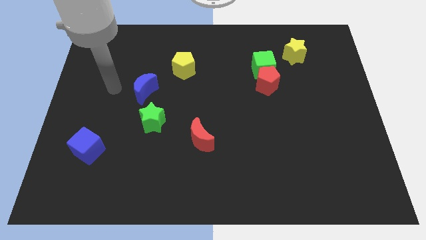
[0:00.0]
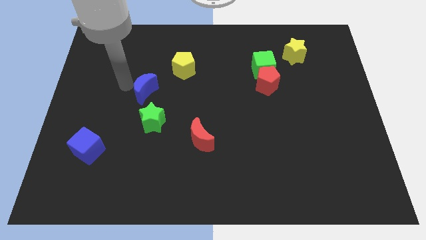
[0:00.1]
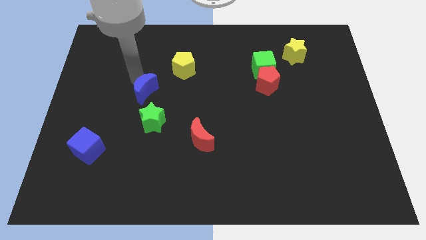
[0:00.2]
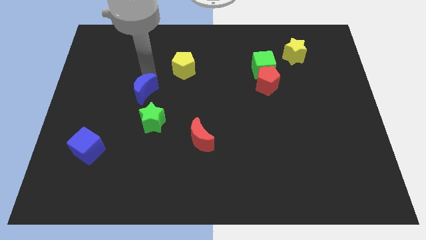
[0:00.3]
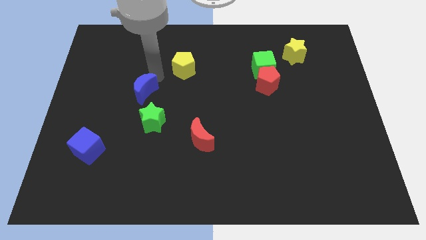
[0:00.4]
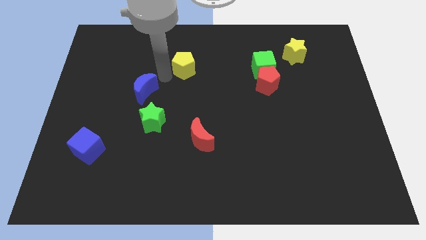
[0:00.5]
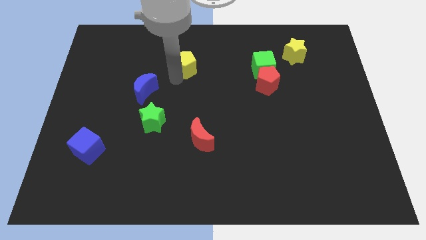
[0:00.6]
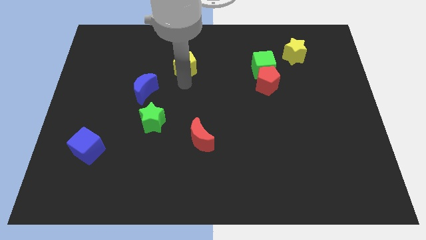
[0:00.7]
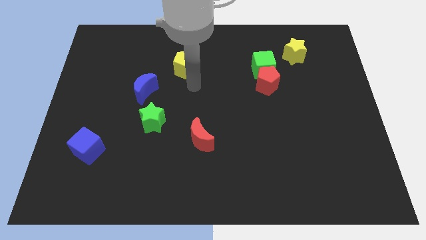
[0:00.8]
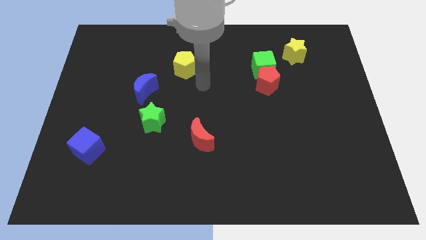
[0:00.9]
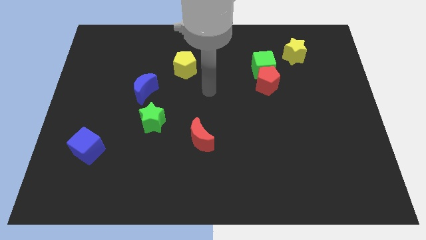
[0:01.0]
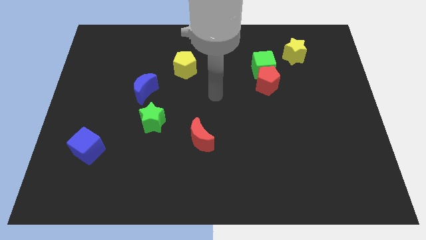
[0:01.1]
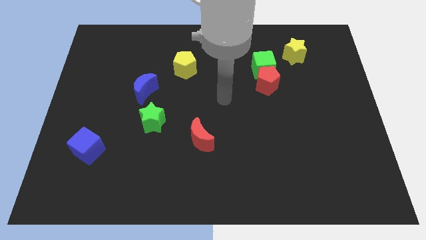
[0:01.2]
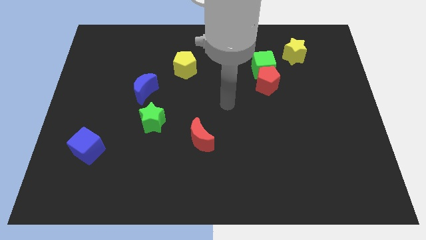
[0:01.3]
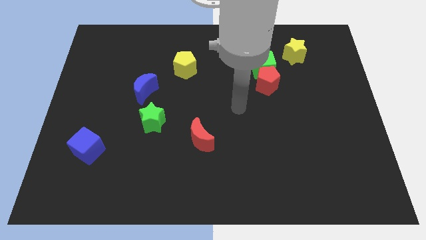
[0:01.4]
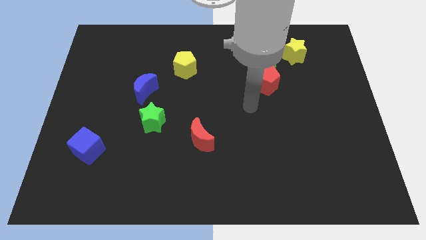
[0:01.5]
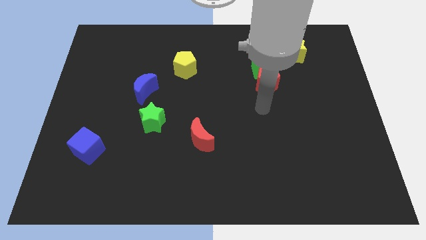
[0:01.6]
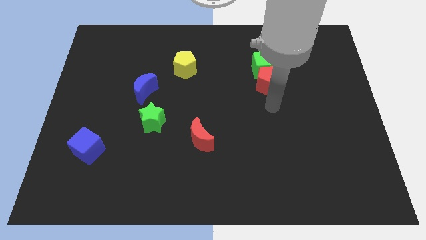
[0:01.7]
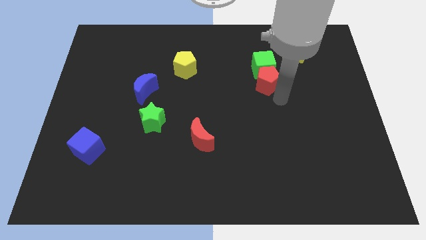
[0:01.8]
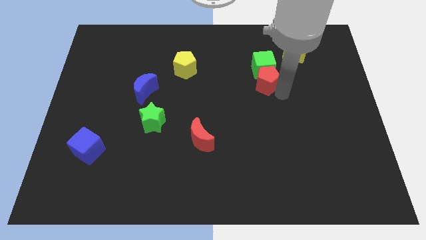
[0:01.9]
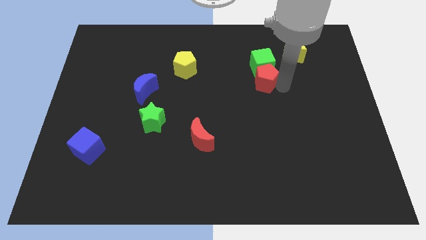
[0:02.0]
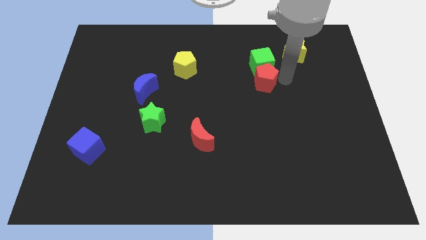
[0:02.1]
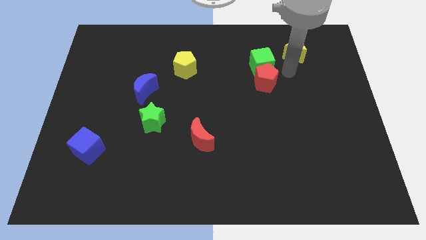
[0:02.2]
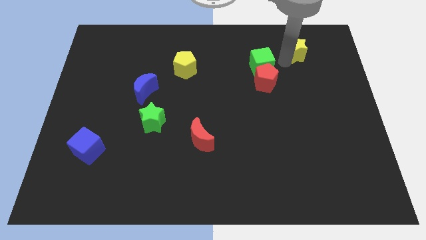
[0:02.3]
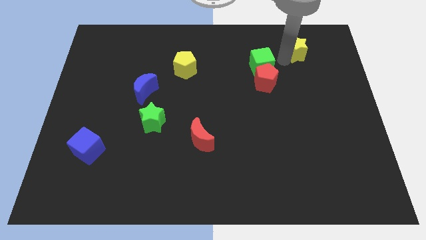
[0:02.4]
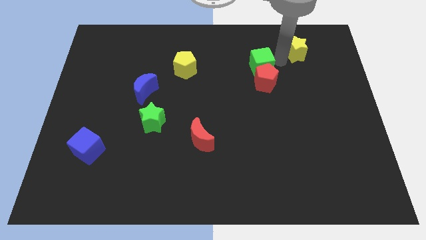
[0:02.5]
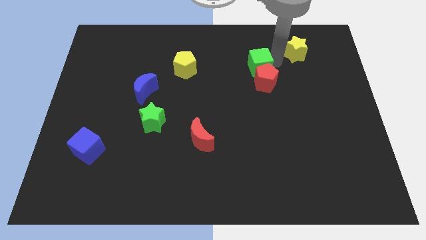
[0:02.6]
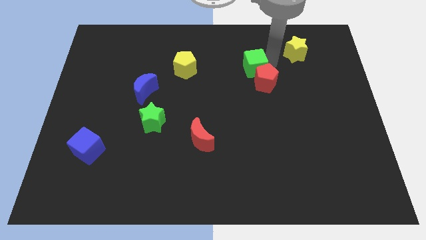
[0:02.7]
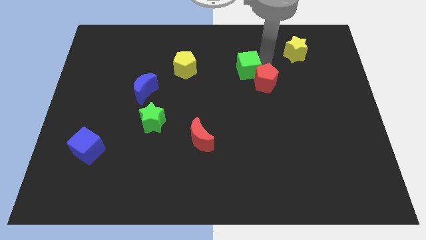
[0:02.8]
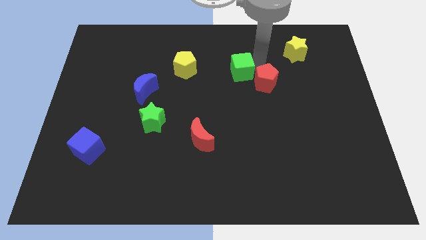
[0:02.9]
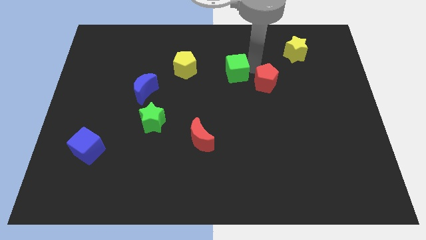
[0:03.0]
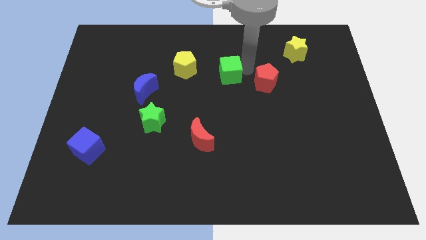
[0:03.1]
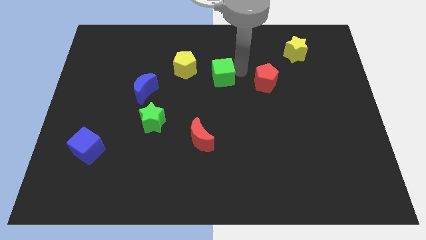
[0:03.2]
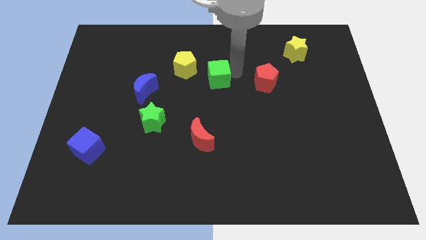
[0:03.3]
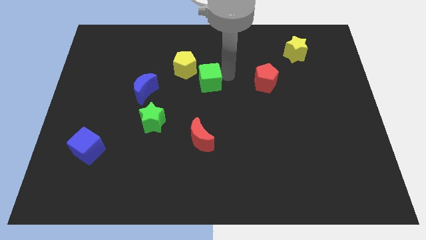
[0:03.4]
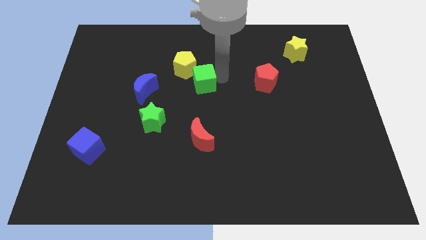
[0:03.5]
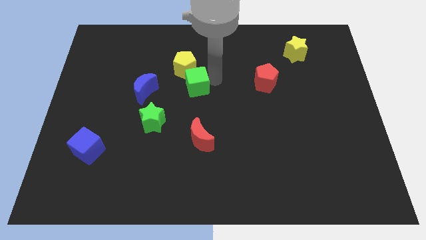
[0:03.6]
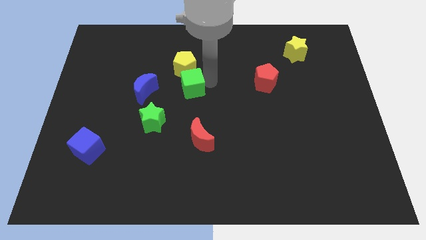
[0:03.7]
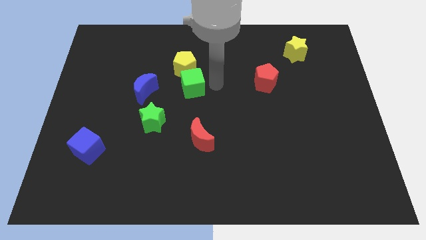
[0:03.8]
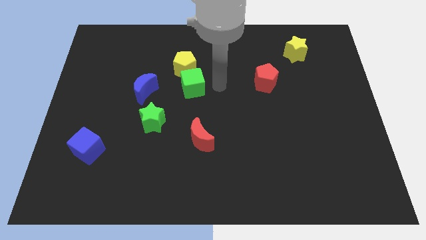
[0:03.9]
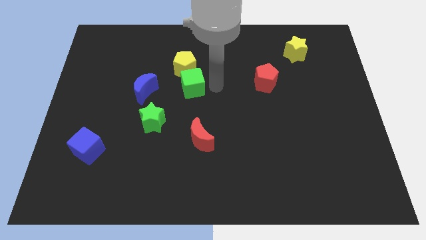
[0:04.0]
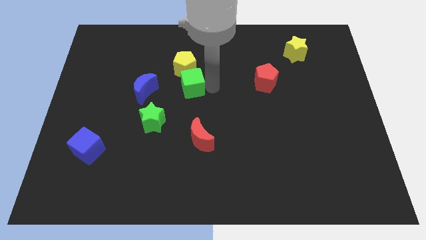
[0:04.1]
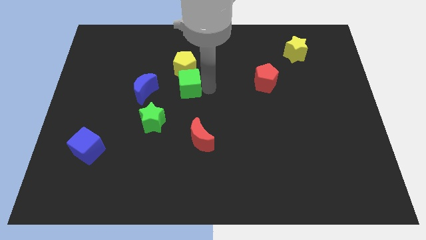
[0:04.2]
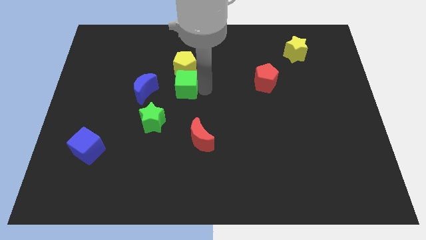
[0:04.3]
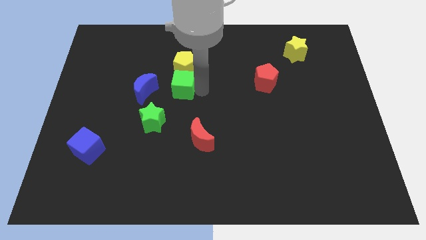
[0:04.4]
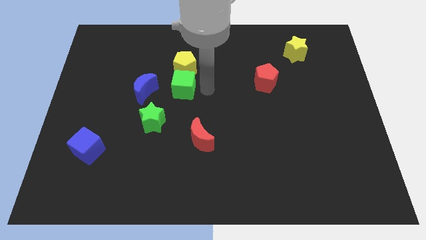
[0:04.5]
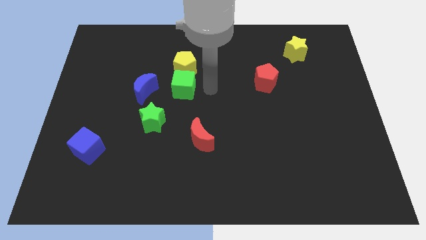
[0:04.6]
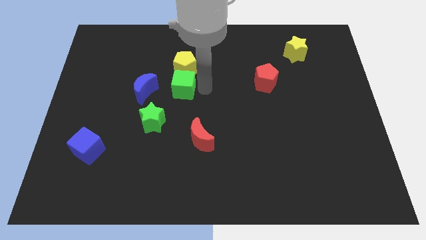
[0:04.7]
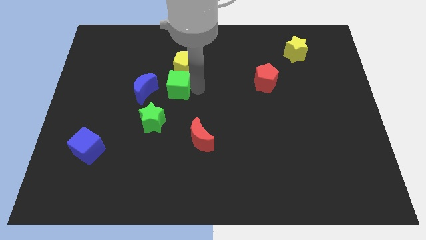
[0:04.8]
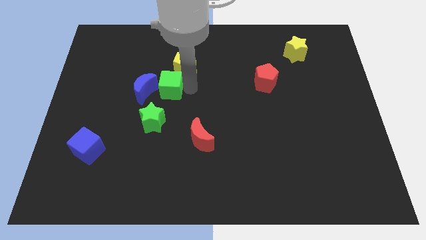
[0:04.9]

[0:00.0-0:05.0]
put the green cube above the green star

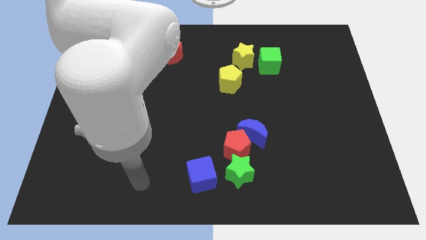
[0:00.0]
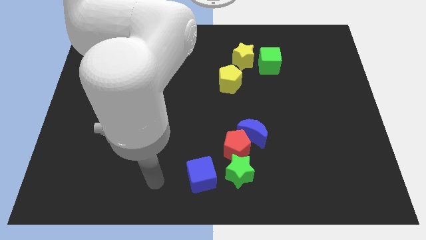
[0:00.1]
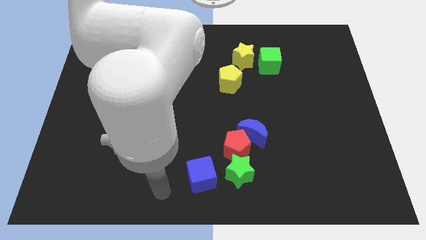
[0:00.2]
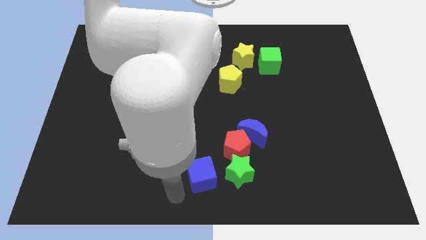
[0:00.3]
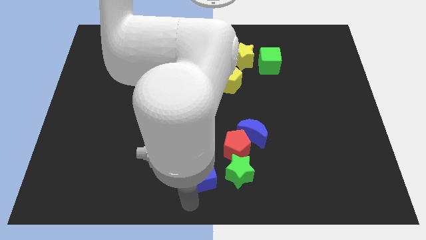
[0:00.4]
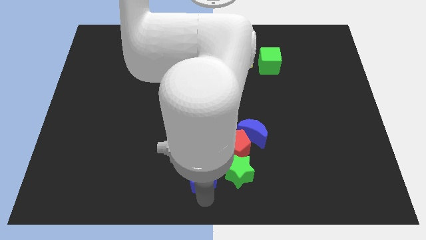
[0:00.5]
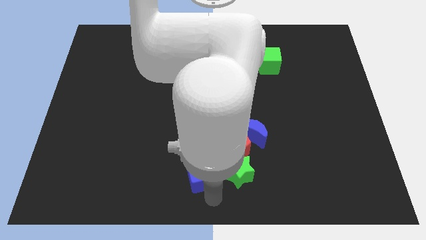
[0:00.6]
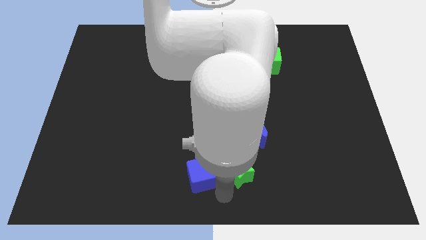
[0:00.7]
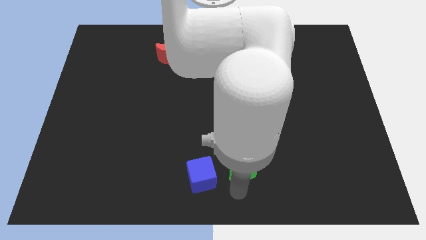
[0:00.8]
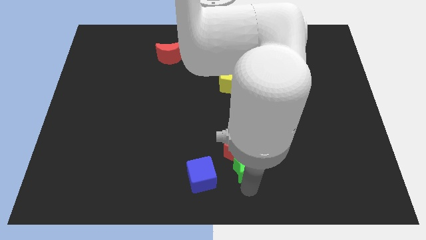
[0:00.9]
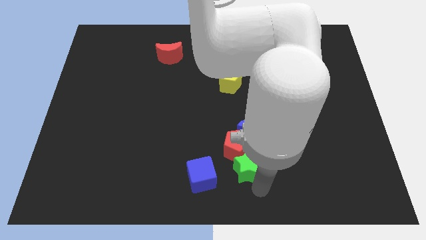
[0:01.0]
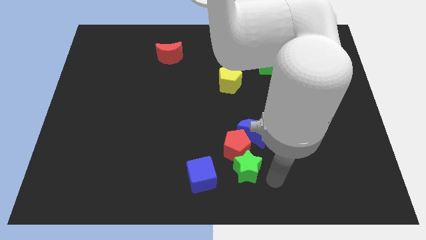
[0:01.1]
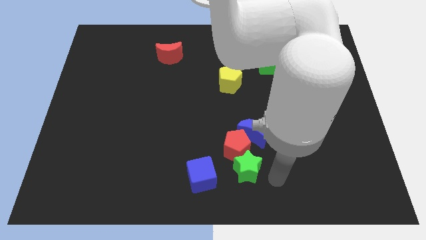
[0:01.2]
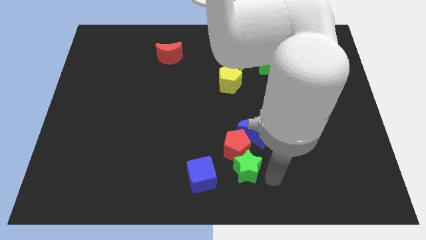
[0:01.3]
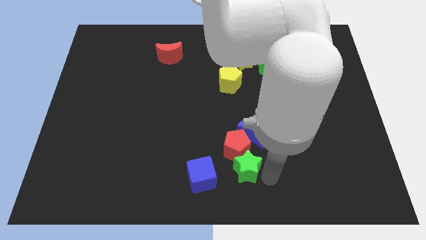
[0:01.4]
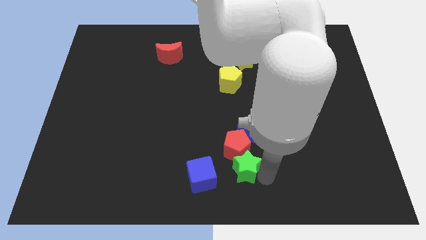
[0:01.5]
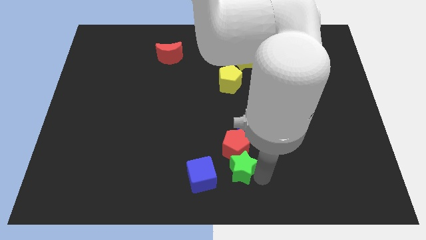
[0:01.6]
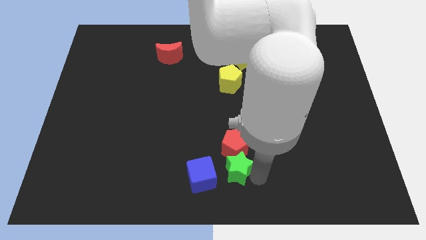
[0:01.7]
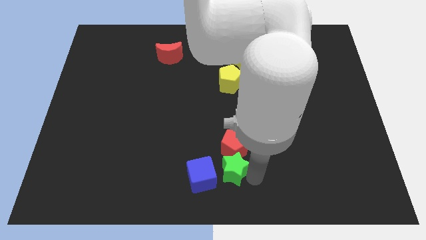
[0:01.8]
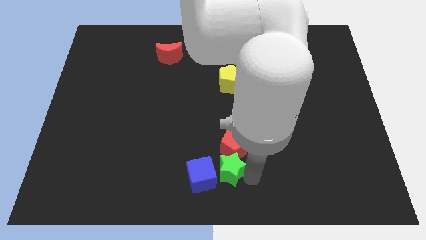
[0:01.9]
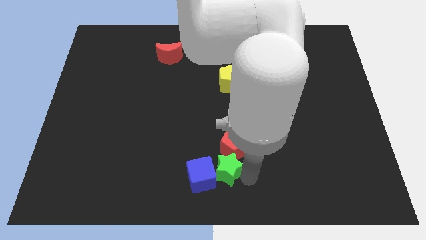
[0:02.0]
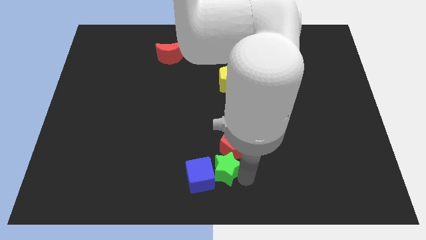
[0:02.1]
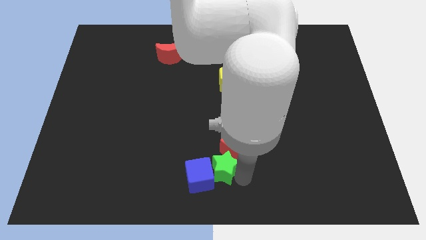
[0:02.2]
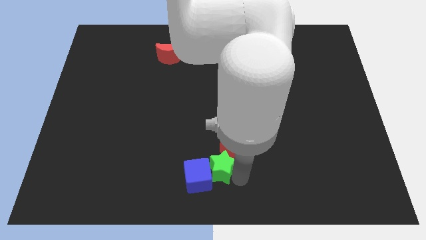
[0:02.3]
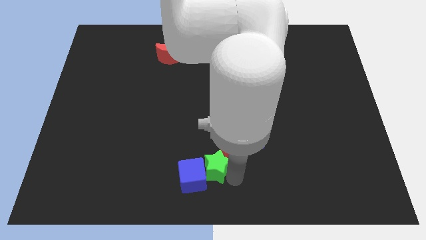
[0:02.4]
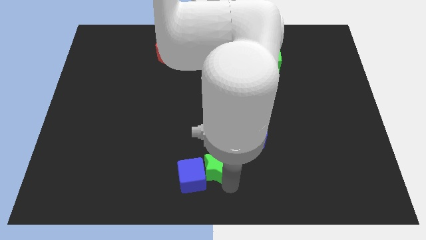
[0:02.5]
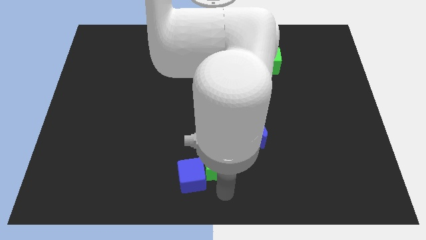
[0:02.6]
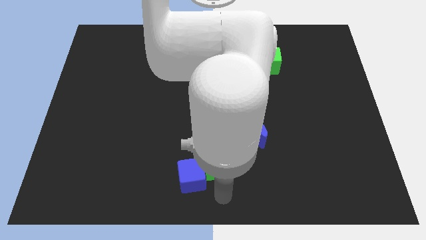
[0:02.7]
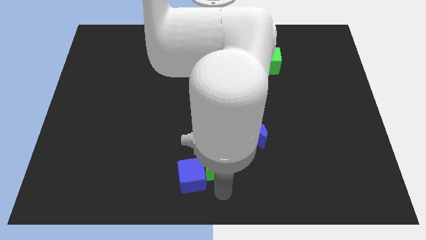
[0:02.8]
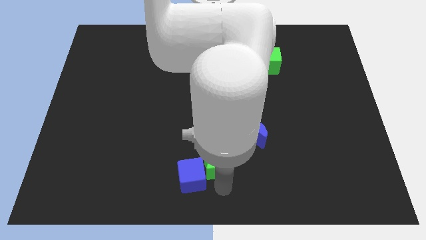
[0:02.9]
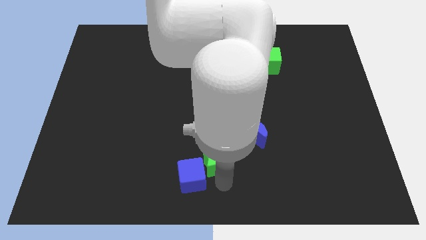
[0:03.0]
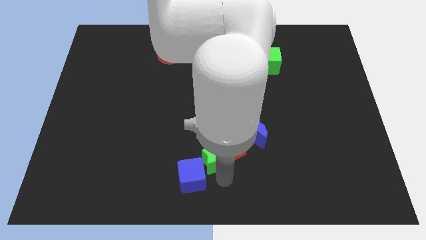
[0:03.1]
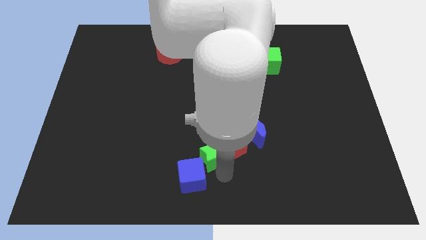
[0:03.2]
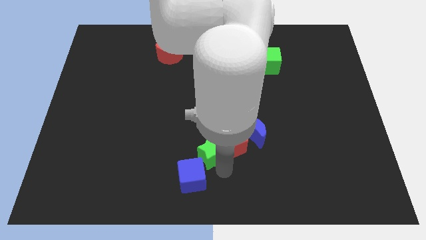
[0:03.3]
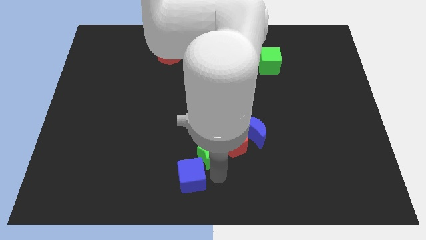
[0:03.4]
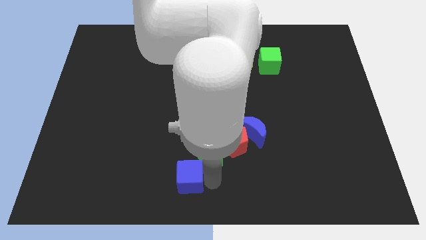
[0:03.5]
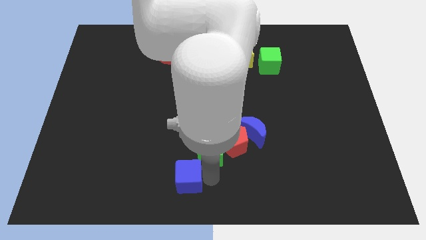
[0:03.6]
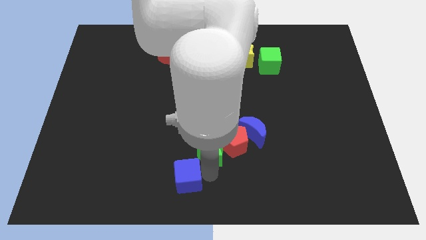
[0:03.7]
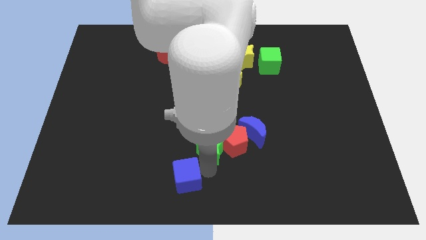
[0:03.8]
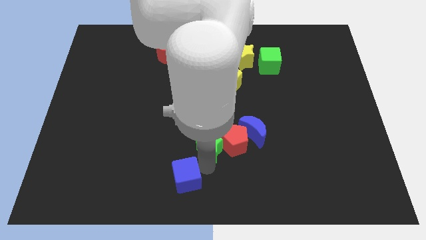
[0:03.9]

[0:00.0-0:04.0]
move the green star diagonally up and to the left of the red pentagon
